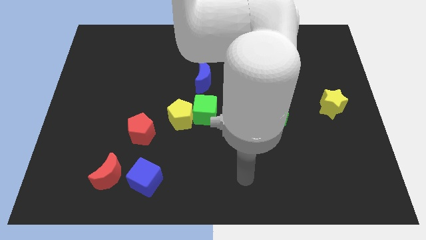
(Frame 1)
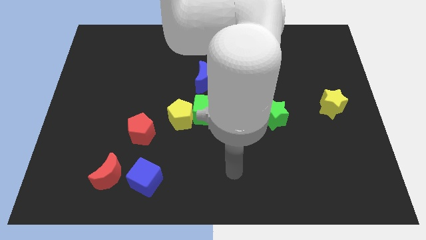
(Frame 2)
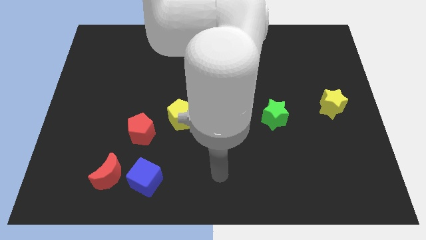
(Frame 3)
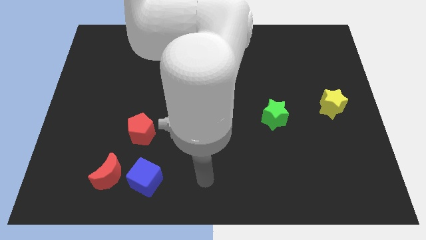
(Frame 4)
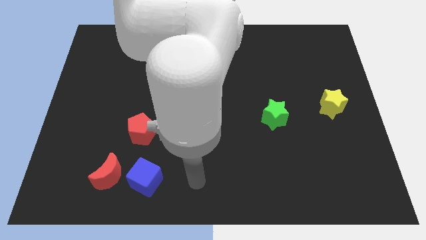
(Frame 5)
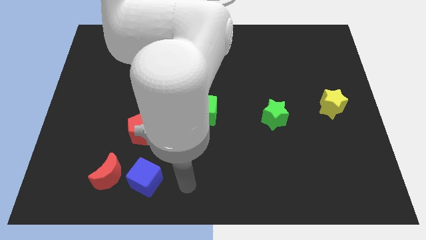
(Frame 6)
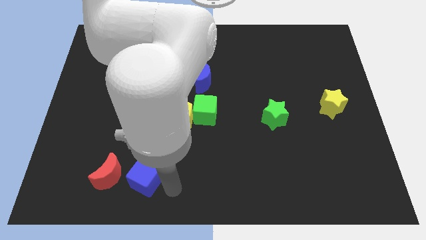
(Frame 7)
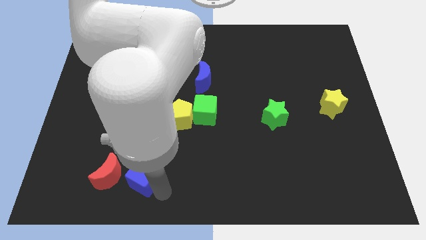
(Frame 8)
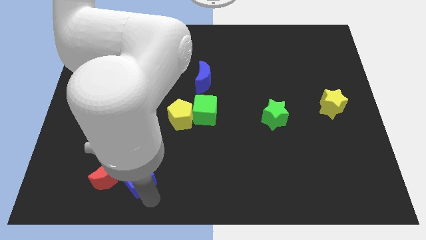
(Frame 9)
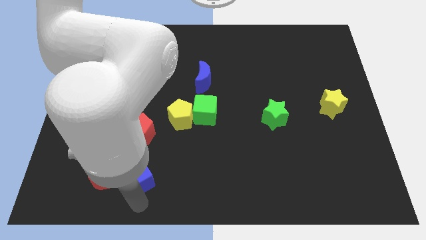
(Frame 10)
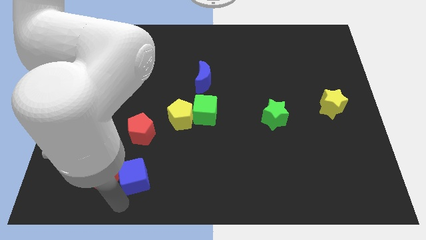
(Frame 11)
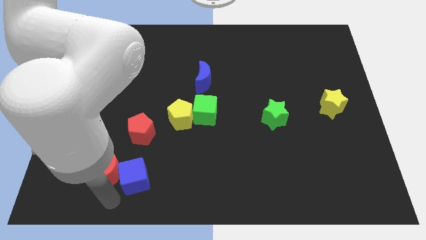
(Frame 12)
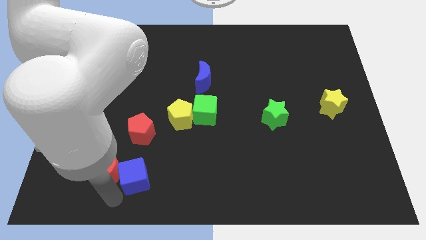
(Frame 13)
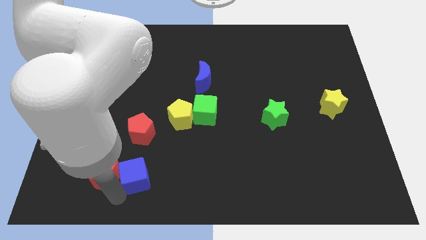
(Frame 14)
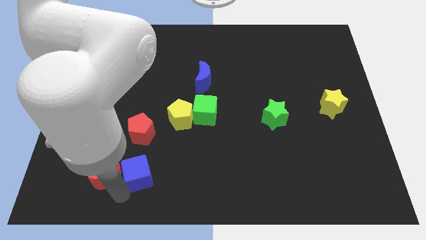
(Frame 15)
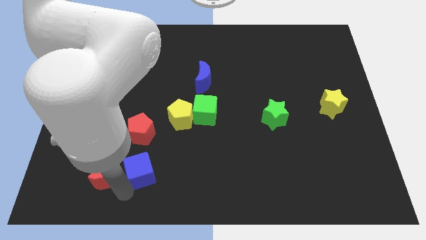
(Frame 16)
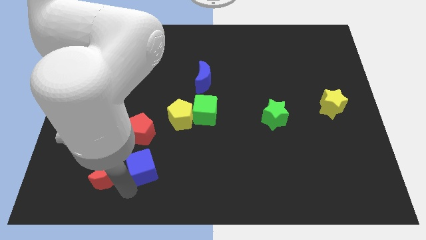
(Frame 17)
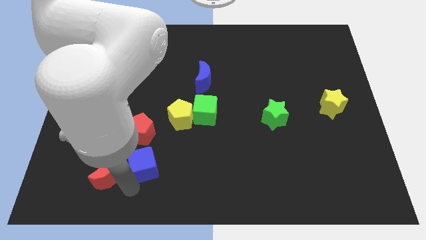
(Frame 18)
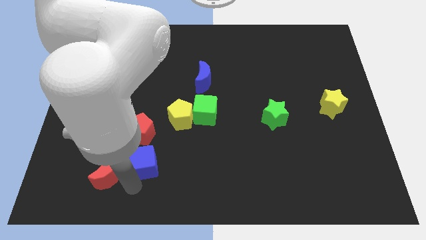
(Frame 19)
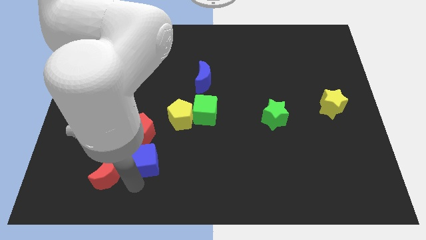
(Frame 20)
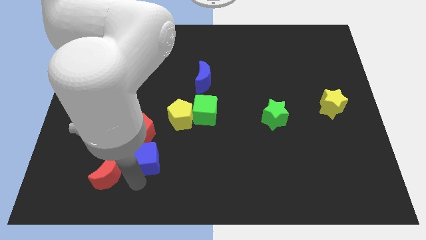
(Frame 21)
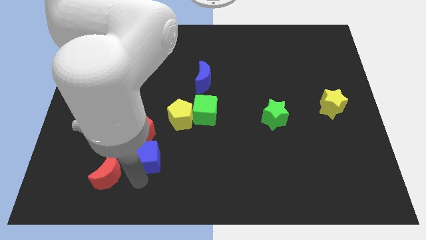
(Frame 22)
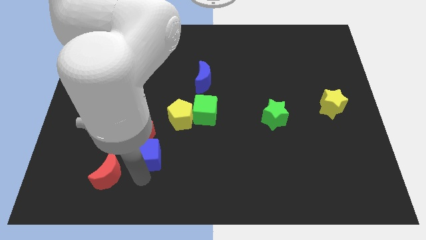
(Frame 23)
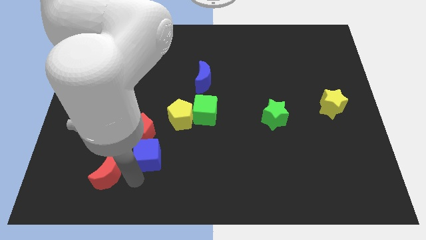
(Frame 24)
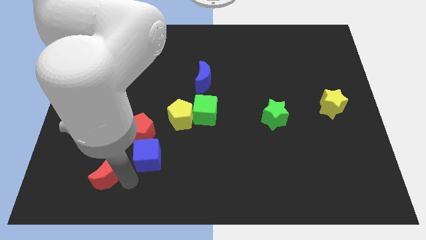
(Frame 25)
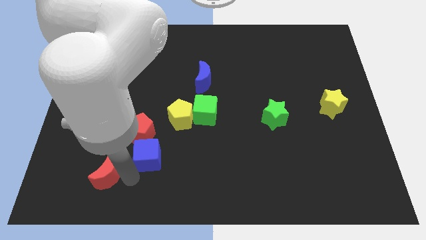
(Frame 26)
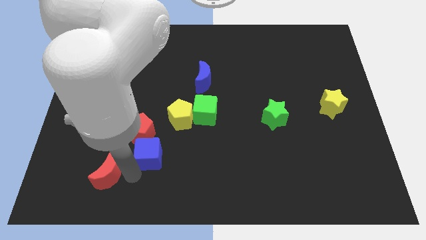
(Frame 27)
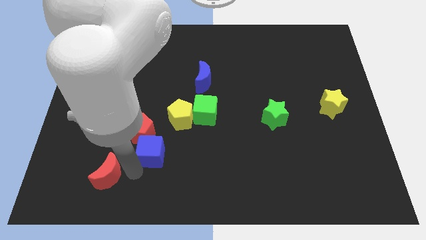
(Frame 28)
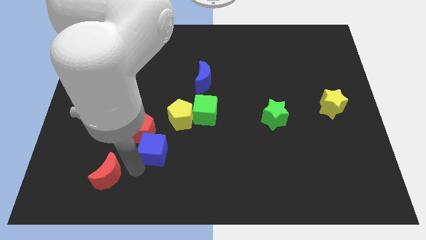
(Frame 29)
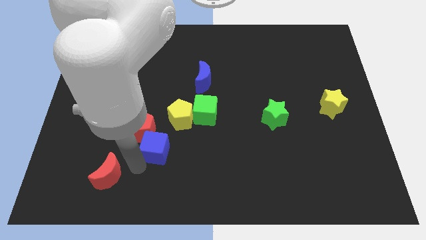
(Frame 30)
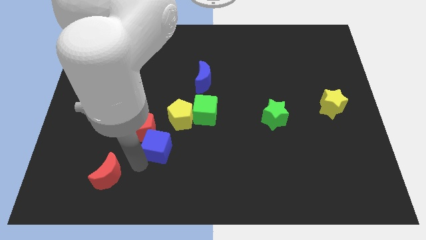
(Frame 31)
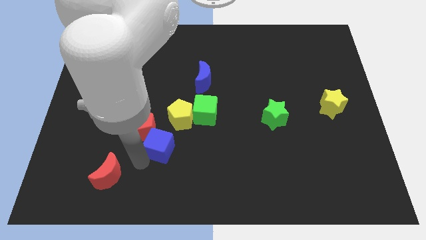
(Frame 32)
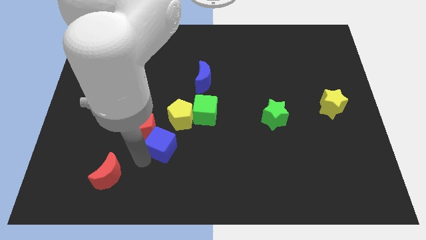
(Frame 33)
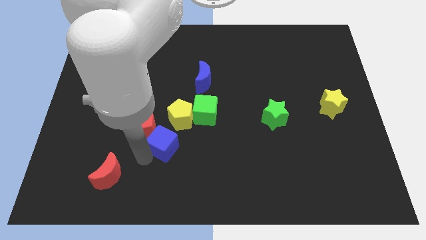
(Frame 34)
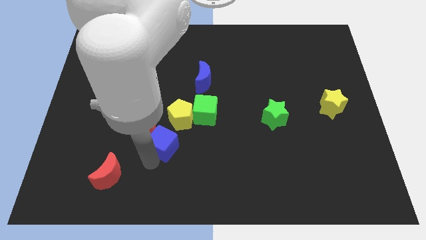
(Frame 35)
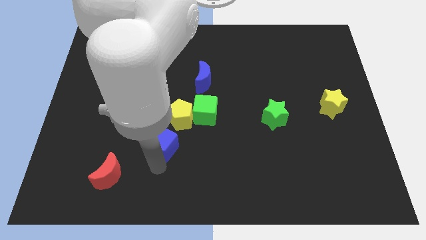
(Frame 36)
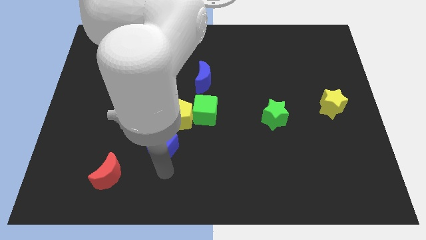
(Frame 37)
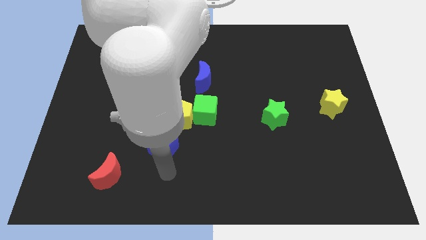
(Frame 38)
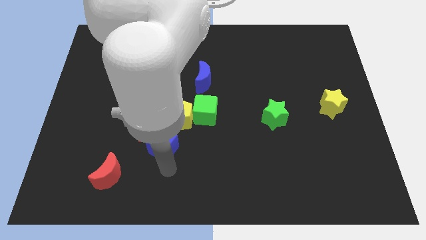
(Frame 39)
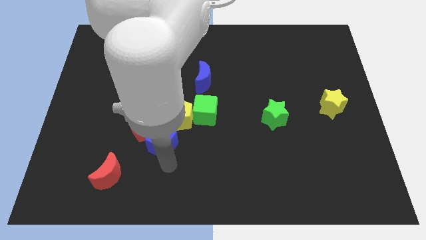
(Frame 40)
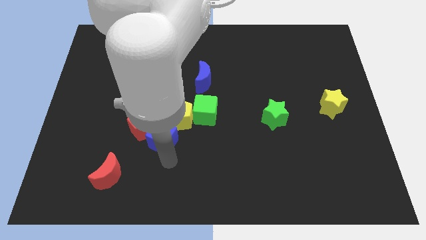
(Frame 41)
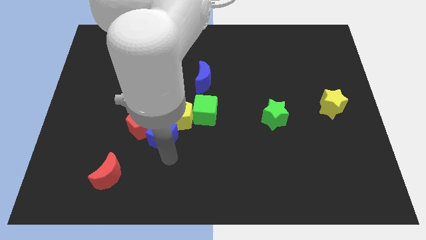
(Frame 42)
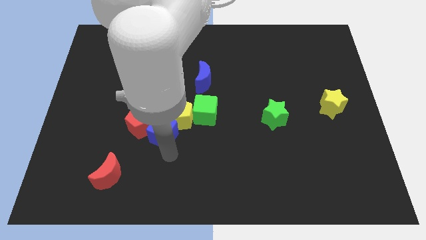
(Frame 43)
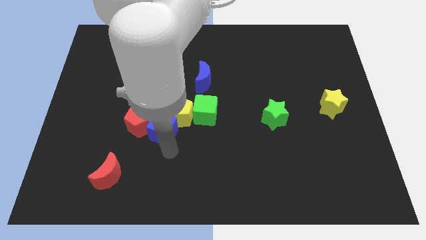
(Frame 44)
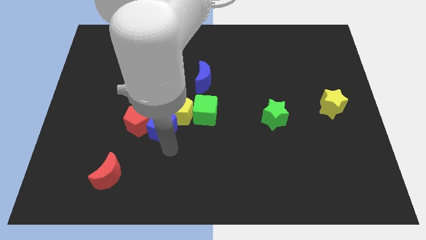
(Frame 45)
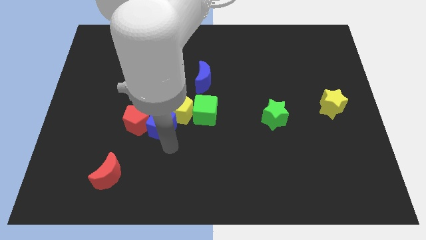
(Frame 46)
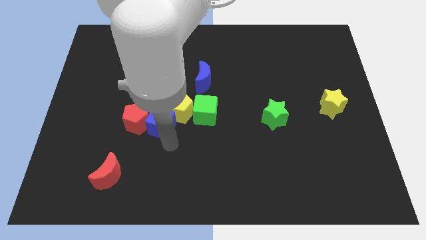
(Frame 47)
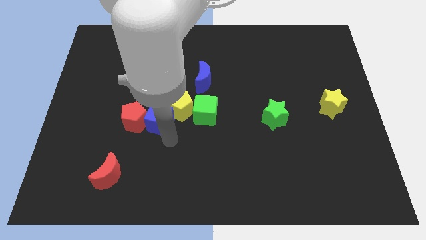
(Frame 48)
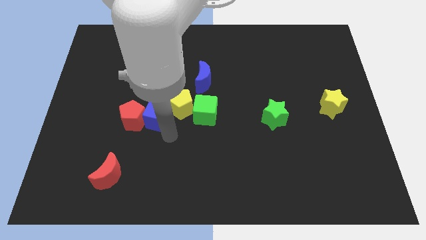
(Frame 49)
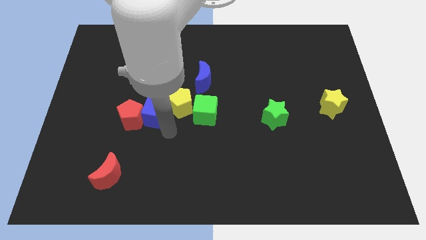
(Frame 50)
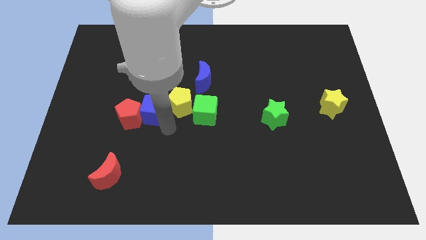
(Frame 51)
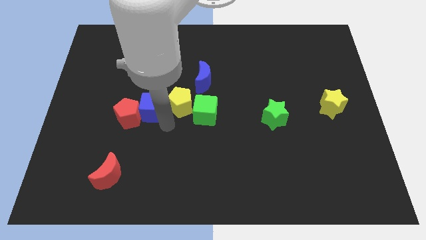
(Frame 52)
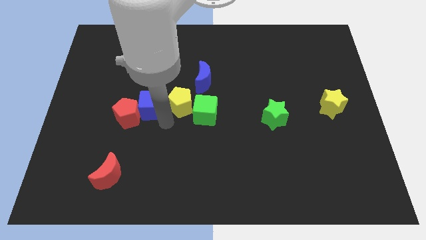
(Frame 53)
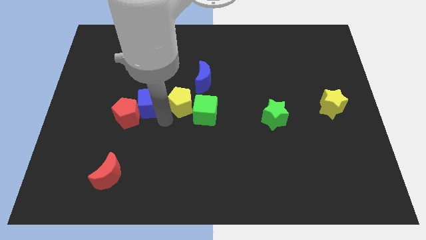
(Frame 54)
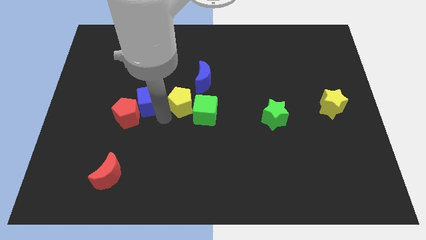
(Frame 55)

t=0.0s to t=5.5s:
slide the blue cube upwards

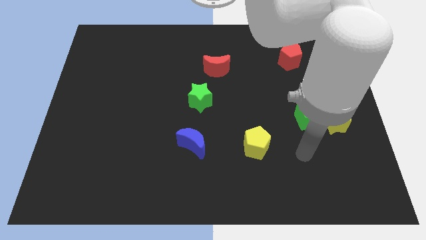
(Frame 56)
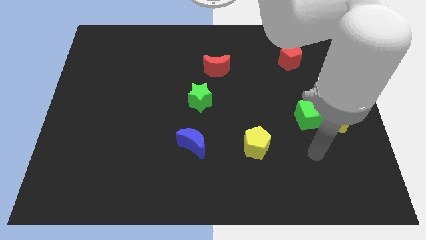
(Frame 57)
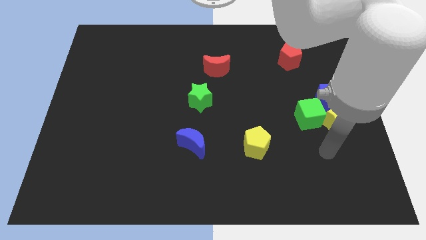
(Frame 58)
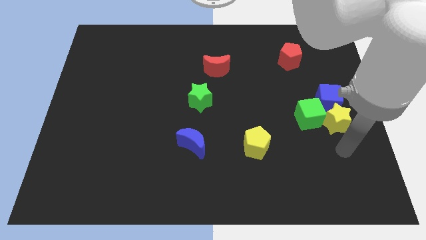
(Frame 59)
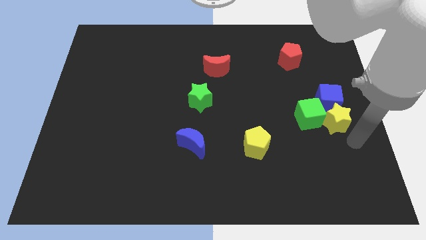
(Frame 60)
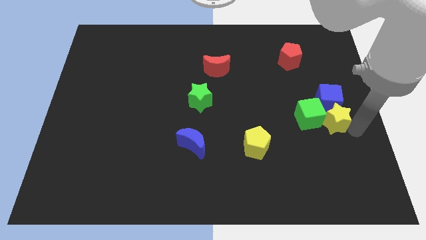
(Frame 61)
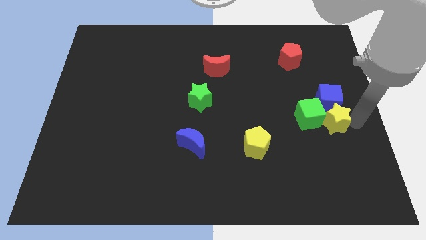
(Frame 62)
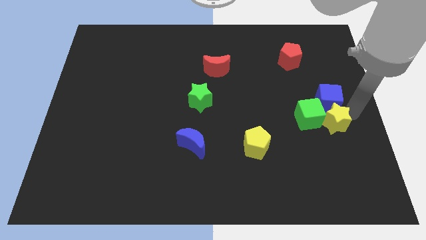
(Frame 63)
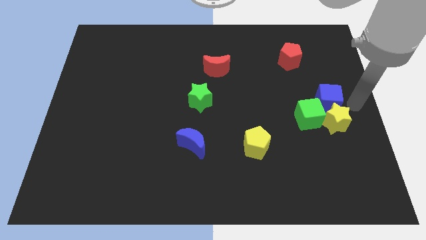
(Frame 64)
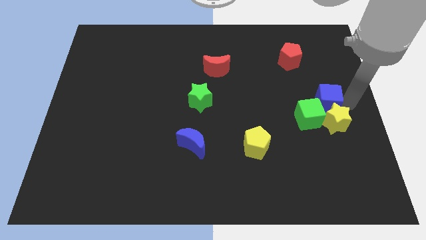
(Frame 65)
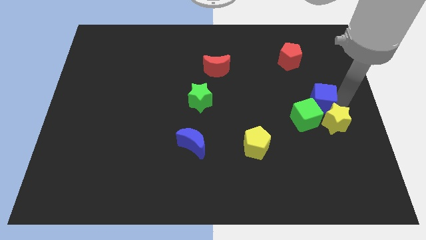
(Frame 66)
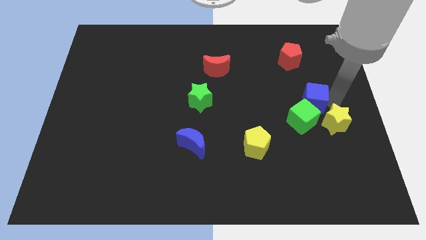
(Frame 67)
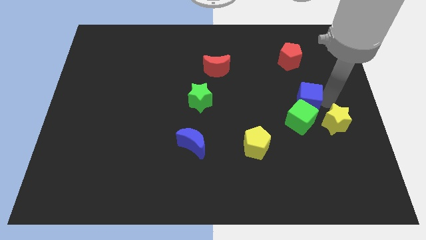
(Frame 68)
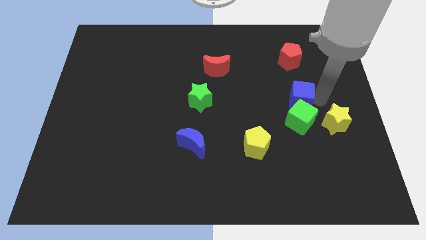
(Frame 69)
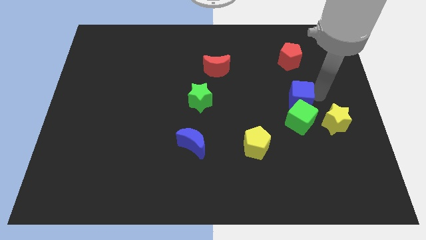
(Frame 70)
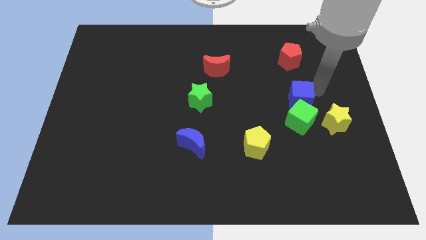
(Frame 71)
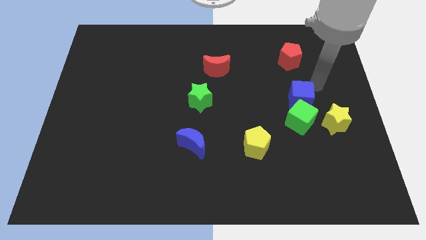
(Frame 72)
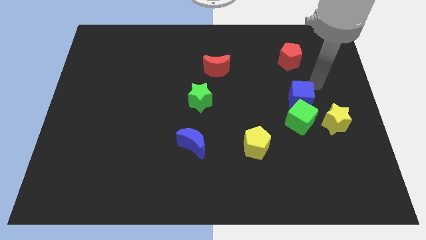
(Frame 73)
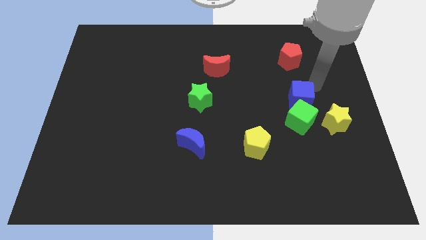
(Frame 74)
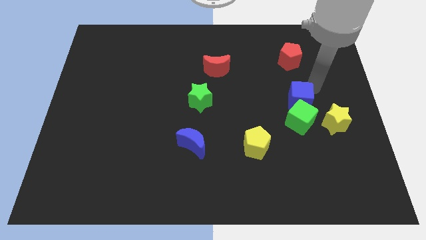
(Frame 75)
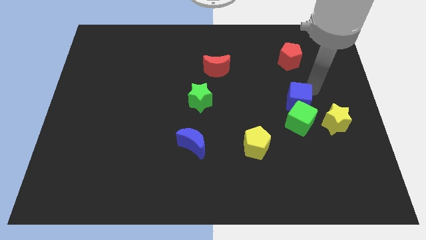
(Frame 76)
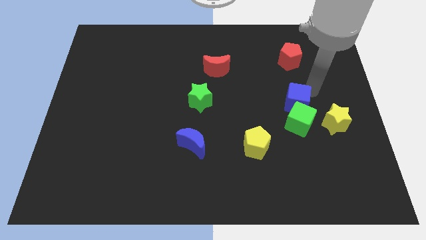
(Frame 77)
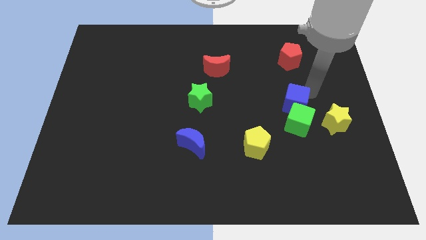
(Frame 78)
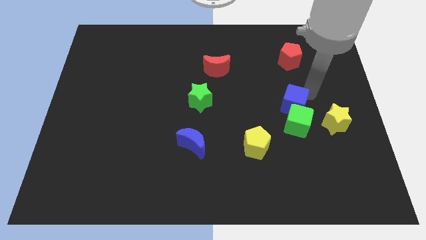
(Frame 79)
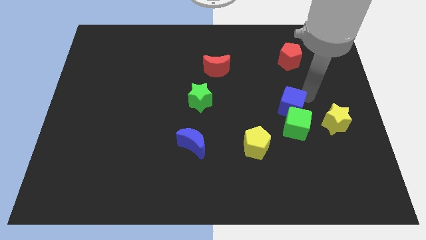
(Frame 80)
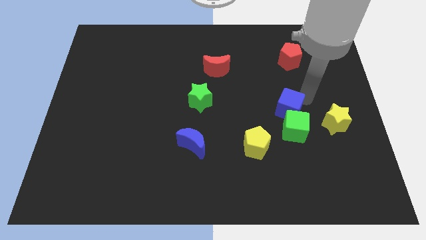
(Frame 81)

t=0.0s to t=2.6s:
slide the blue cube downwards and then left a little

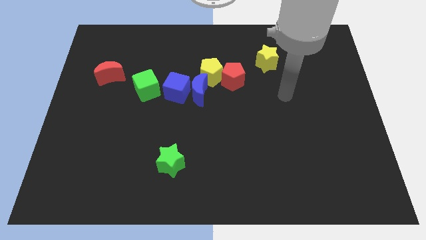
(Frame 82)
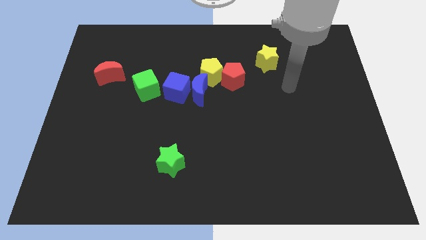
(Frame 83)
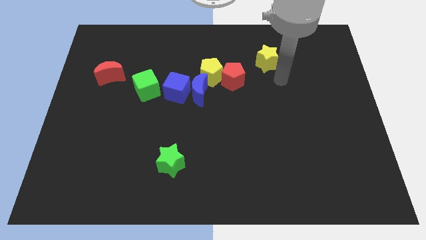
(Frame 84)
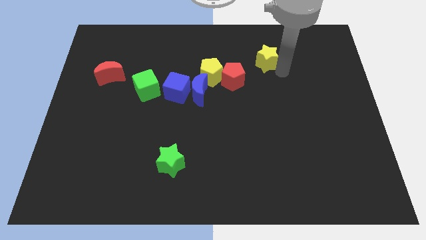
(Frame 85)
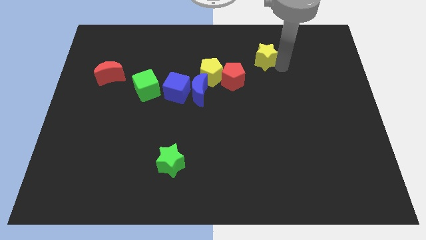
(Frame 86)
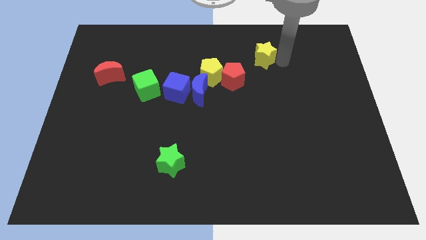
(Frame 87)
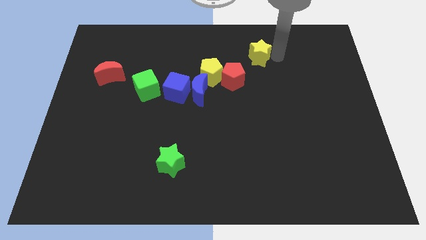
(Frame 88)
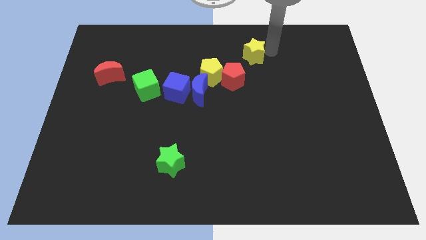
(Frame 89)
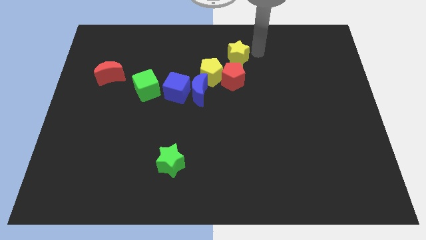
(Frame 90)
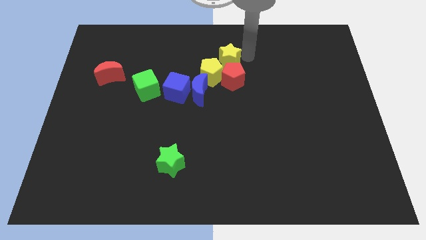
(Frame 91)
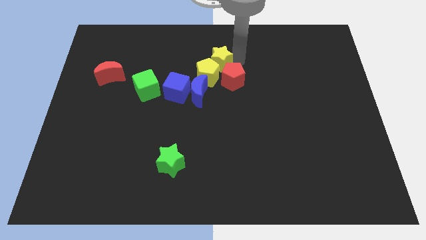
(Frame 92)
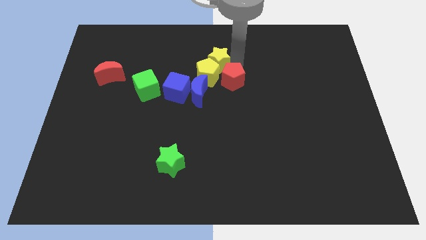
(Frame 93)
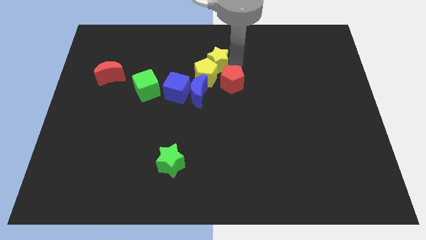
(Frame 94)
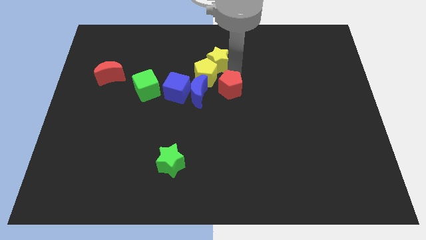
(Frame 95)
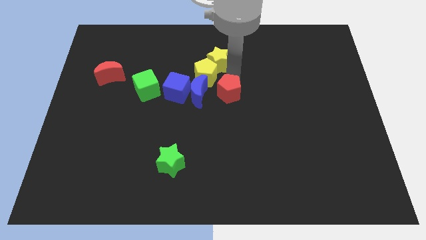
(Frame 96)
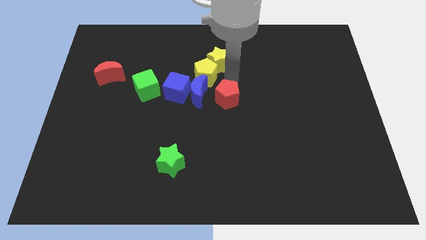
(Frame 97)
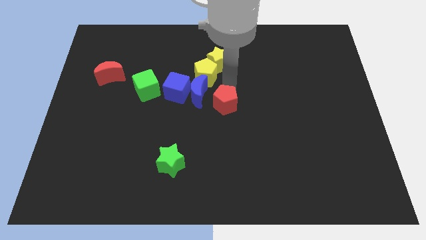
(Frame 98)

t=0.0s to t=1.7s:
slide the red pentagon a bit down
